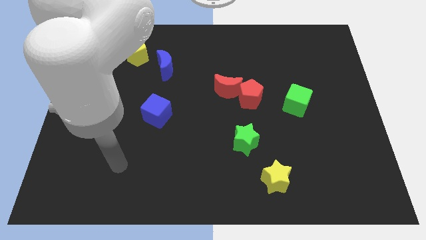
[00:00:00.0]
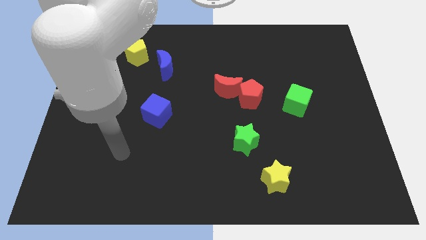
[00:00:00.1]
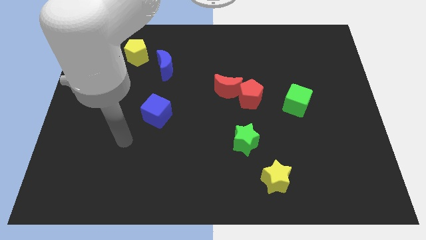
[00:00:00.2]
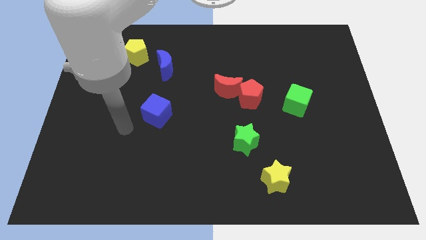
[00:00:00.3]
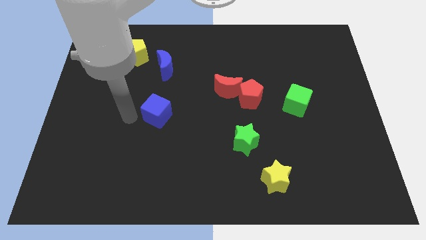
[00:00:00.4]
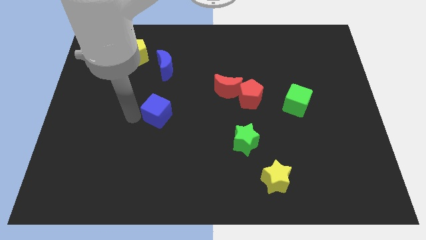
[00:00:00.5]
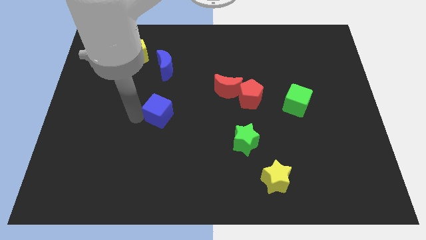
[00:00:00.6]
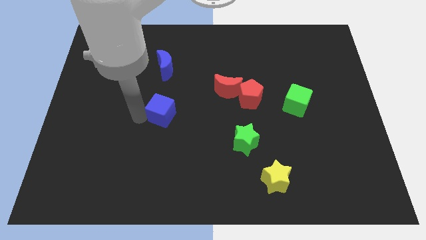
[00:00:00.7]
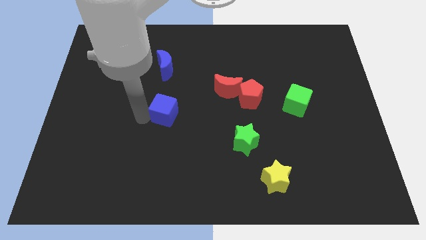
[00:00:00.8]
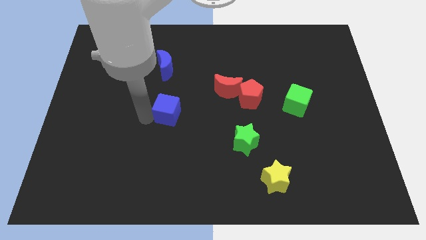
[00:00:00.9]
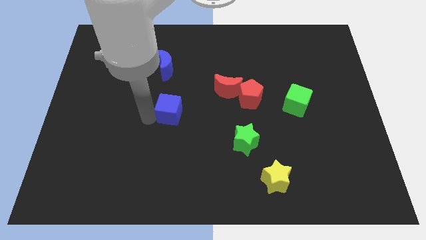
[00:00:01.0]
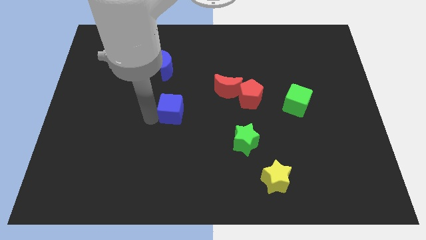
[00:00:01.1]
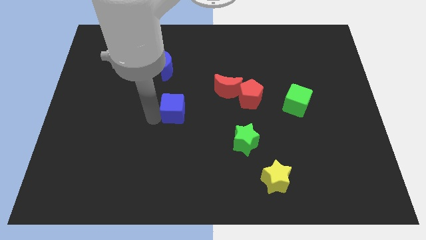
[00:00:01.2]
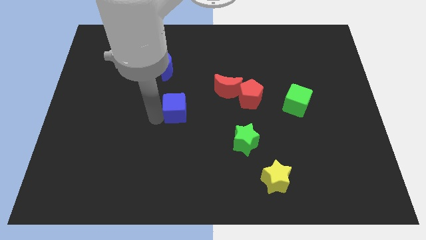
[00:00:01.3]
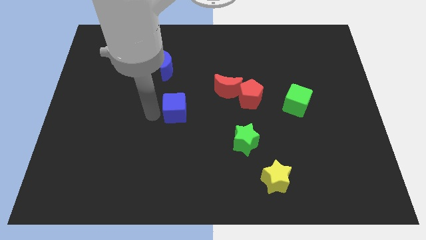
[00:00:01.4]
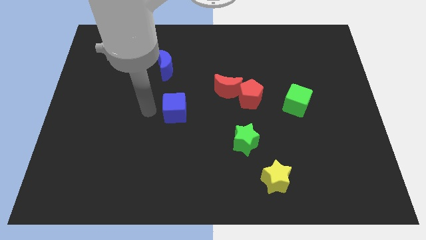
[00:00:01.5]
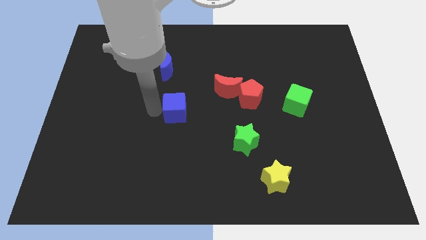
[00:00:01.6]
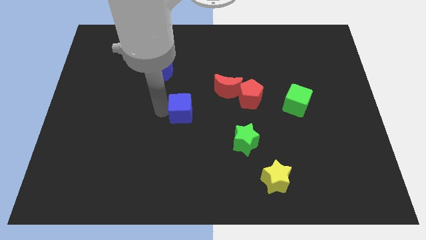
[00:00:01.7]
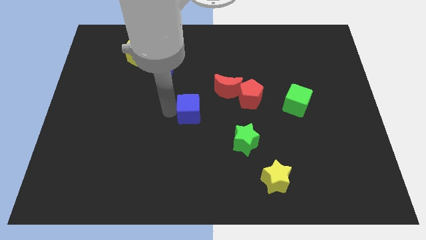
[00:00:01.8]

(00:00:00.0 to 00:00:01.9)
slightly move the blue cube right

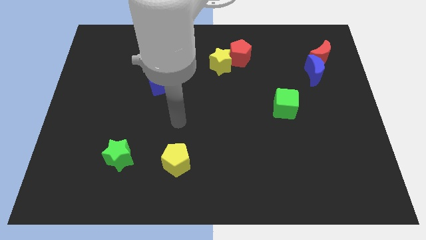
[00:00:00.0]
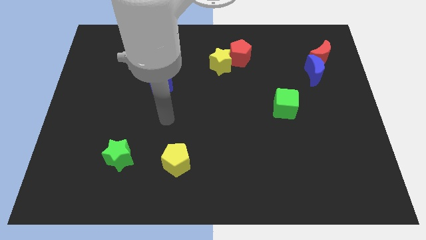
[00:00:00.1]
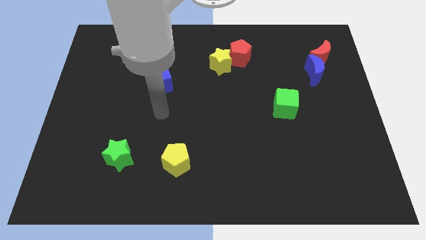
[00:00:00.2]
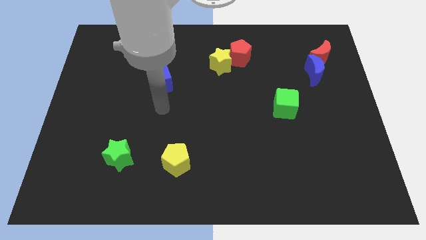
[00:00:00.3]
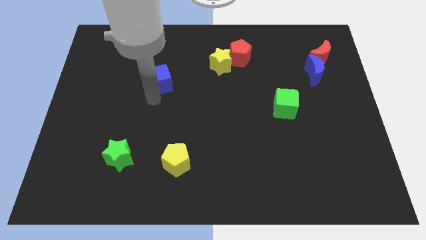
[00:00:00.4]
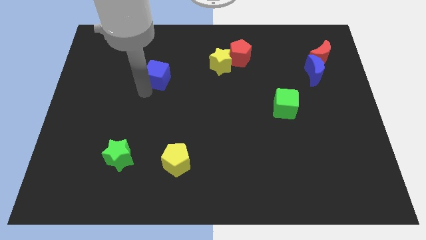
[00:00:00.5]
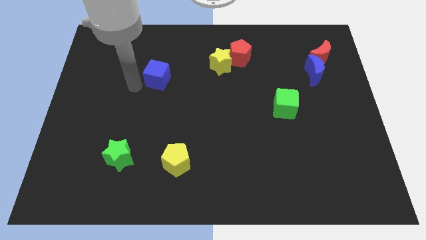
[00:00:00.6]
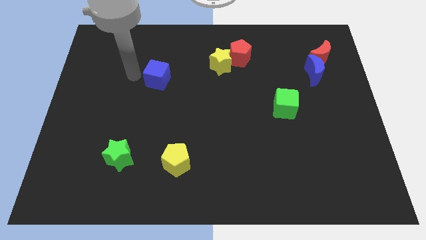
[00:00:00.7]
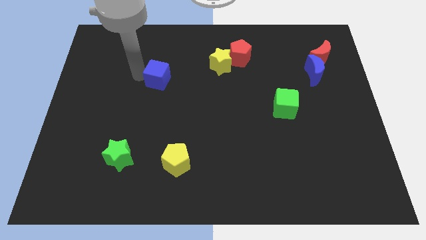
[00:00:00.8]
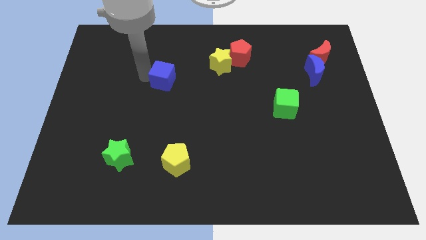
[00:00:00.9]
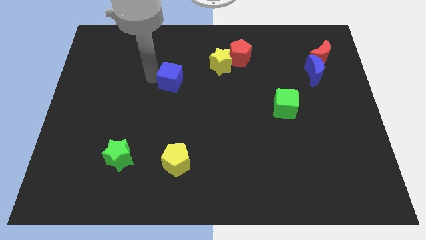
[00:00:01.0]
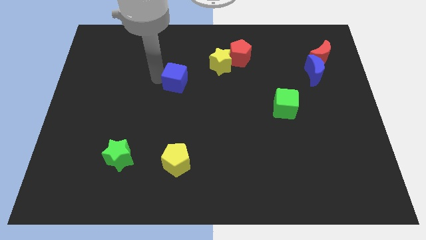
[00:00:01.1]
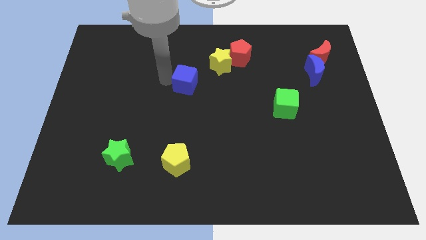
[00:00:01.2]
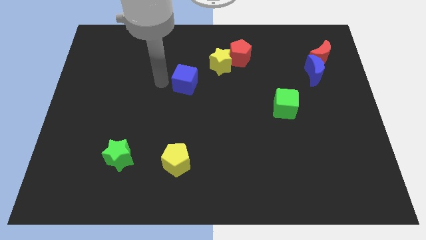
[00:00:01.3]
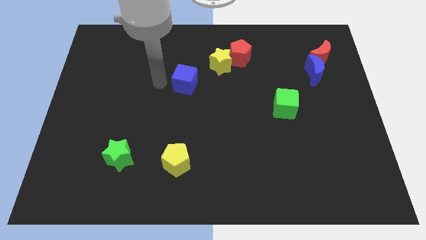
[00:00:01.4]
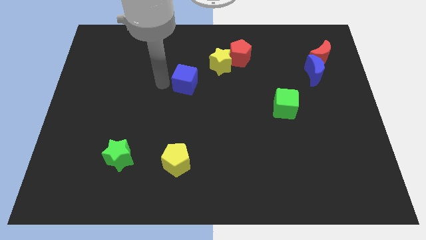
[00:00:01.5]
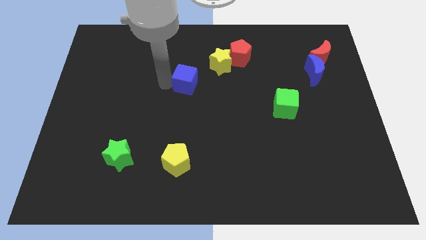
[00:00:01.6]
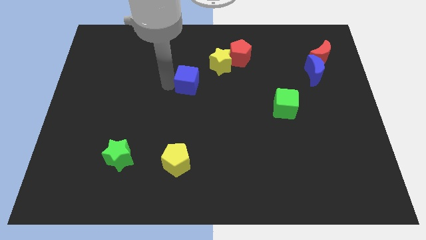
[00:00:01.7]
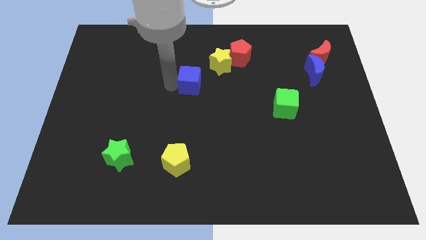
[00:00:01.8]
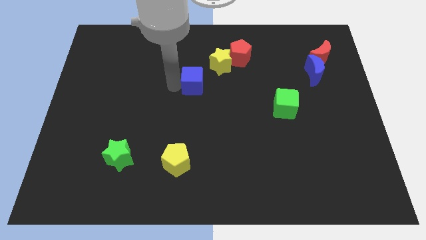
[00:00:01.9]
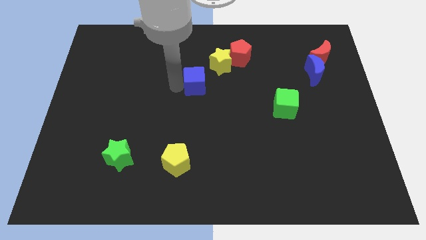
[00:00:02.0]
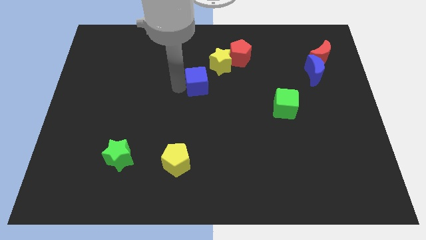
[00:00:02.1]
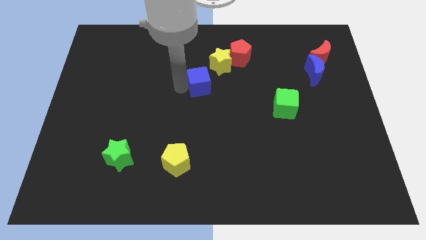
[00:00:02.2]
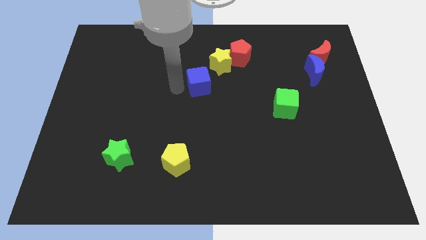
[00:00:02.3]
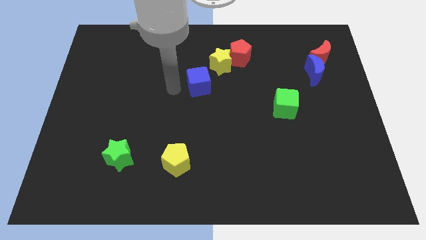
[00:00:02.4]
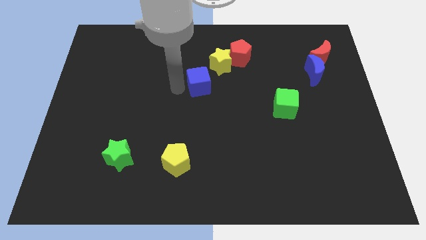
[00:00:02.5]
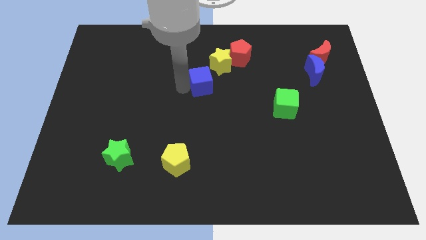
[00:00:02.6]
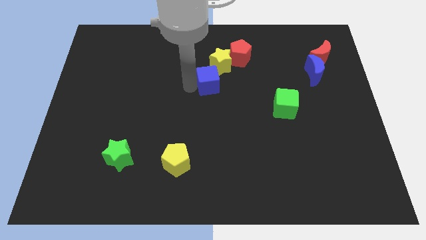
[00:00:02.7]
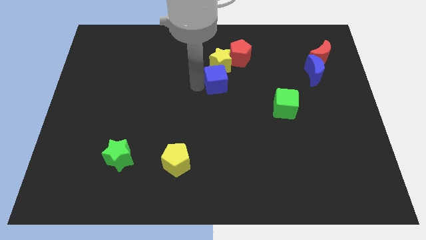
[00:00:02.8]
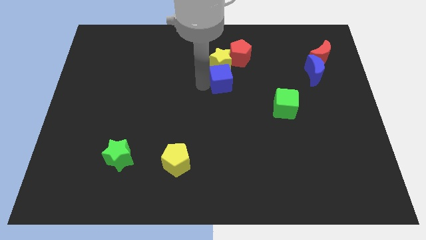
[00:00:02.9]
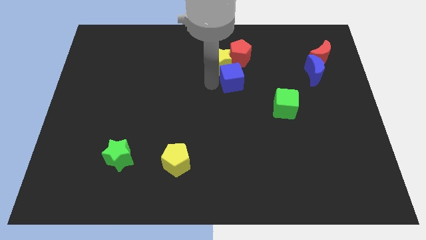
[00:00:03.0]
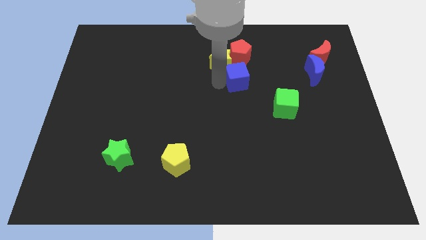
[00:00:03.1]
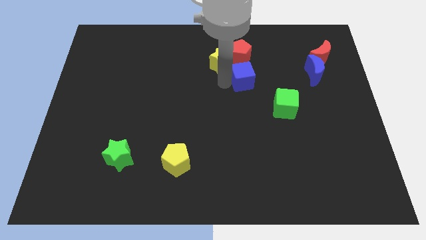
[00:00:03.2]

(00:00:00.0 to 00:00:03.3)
move the blue cube to the right

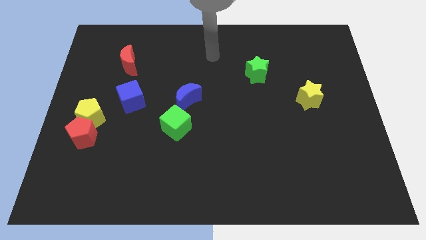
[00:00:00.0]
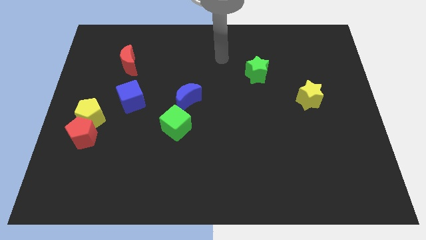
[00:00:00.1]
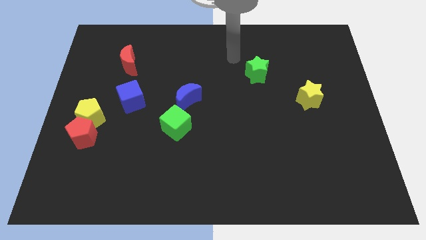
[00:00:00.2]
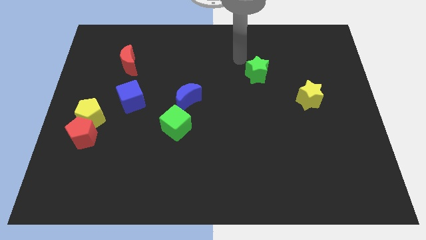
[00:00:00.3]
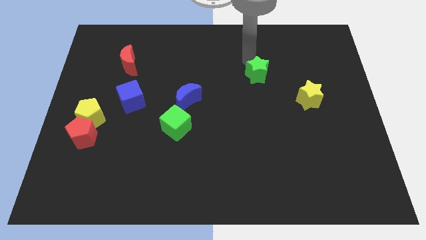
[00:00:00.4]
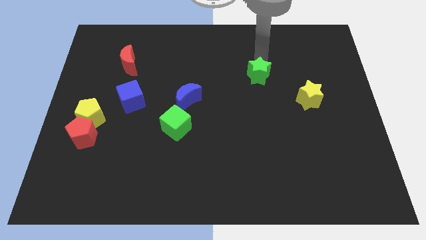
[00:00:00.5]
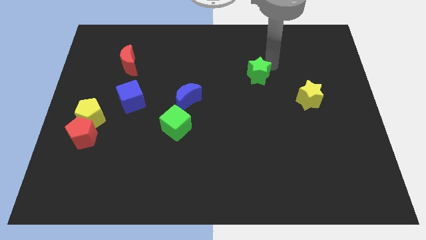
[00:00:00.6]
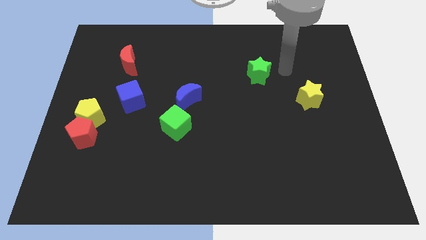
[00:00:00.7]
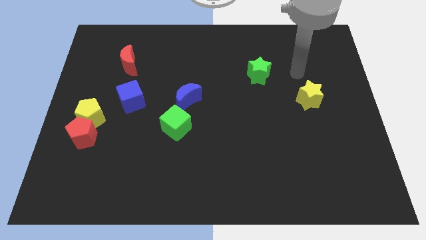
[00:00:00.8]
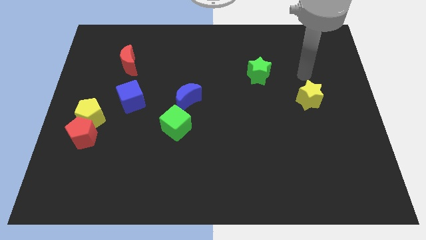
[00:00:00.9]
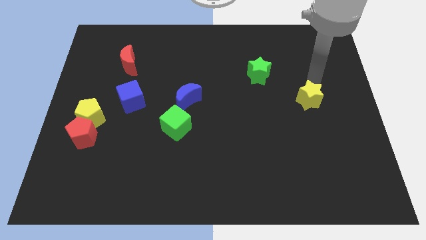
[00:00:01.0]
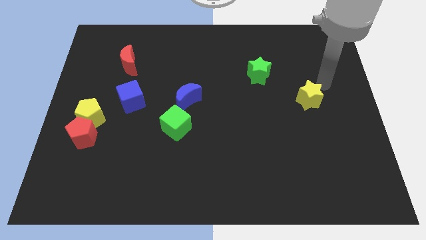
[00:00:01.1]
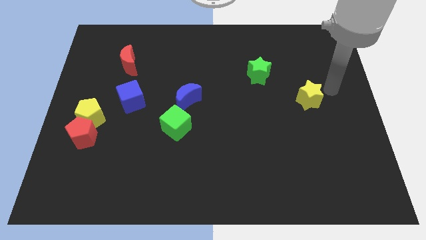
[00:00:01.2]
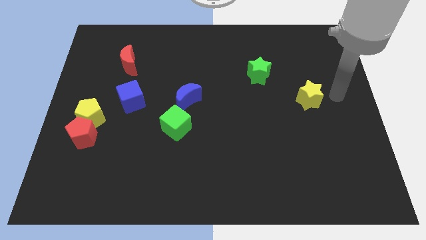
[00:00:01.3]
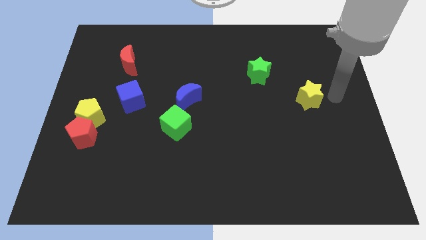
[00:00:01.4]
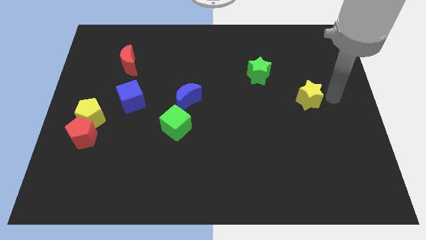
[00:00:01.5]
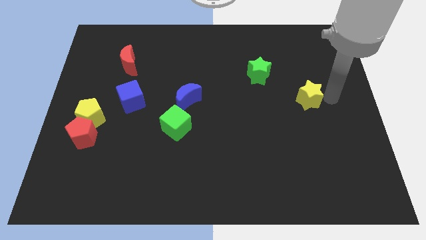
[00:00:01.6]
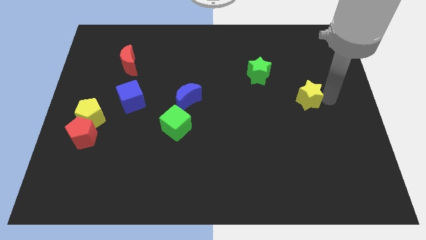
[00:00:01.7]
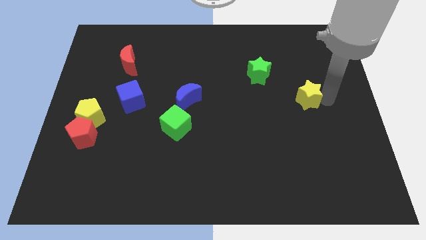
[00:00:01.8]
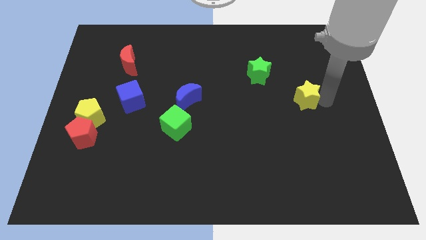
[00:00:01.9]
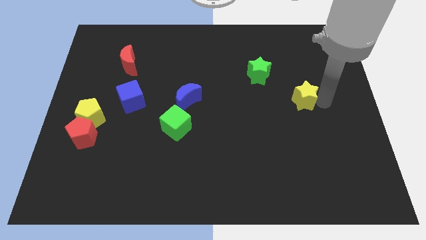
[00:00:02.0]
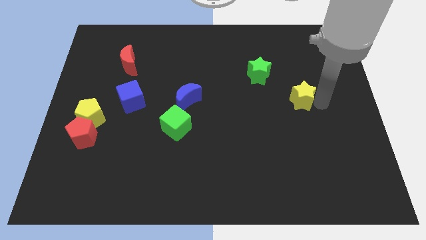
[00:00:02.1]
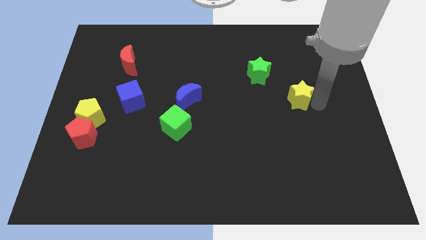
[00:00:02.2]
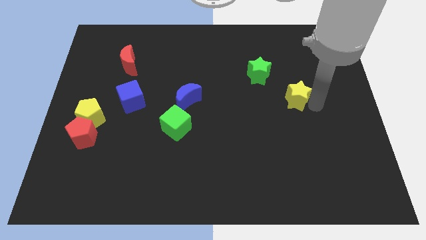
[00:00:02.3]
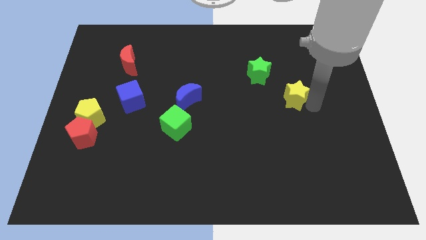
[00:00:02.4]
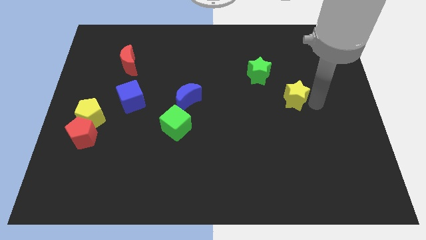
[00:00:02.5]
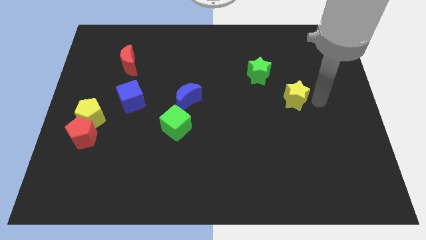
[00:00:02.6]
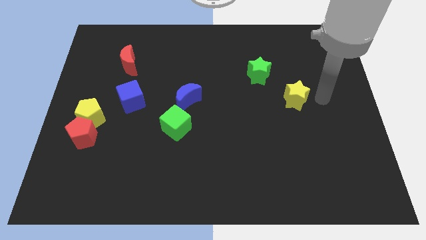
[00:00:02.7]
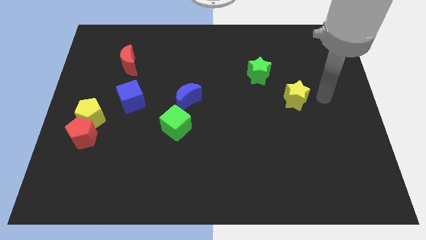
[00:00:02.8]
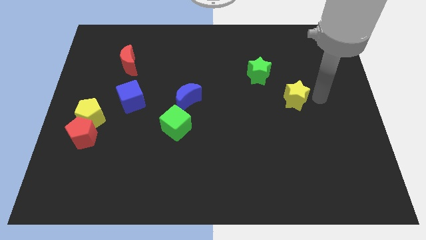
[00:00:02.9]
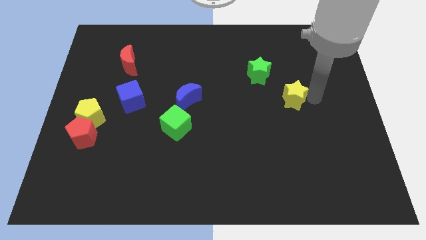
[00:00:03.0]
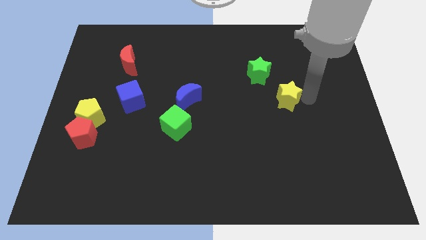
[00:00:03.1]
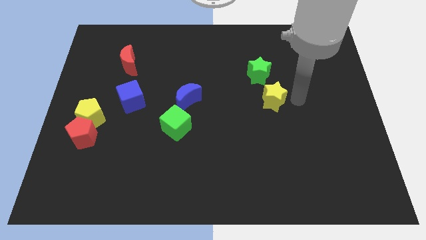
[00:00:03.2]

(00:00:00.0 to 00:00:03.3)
slightly move the yellow star to the left
